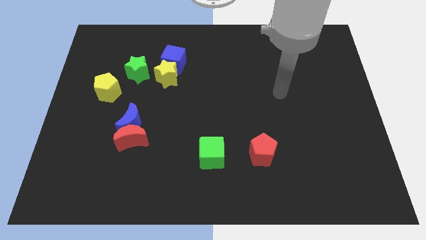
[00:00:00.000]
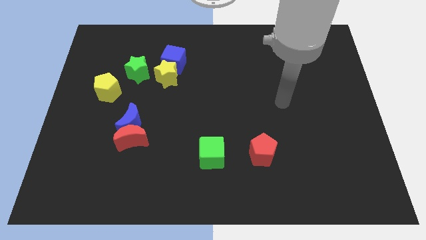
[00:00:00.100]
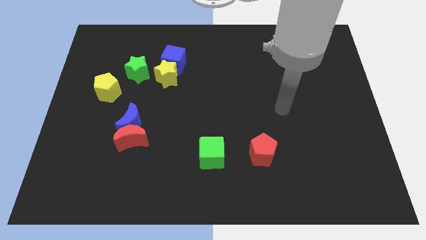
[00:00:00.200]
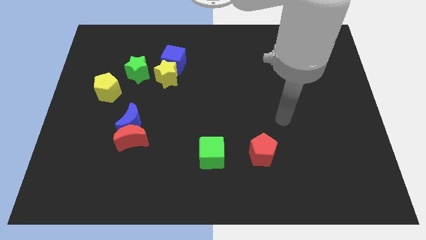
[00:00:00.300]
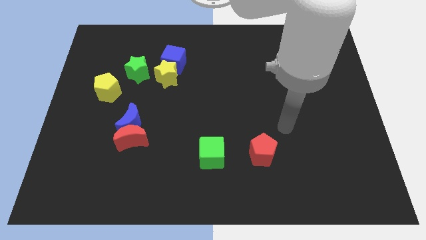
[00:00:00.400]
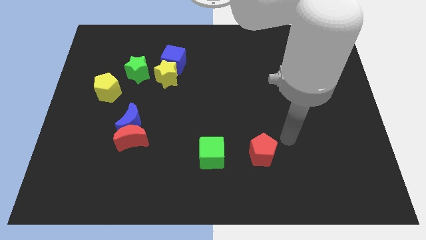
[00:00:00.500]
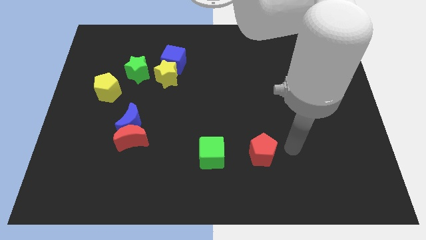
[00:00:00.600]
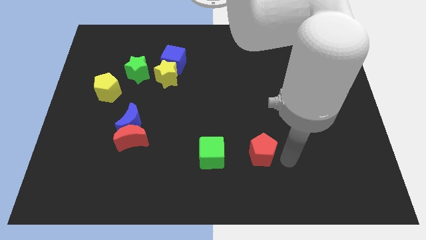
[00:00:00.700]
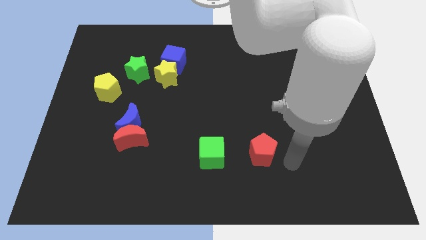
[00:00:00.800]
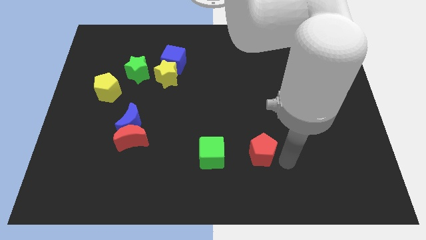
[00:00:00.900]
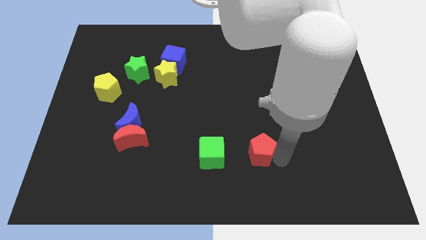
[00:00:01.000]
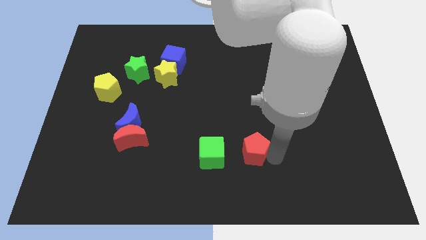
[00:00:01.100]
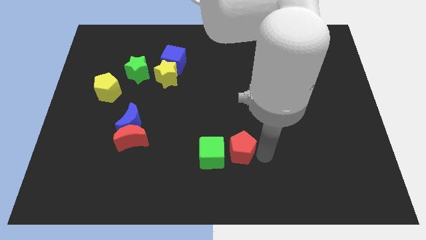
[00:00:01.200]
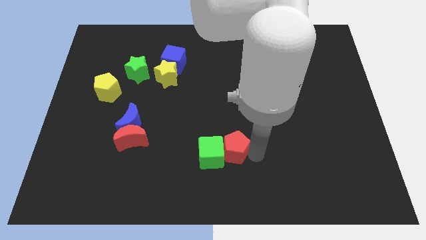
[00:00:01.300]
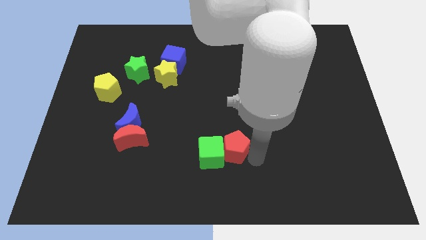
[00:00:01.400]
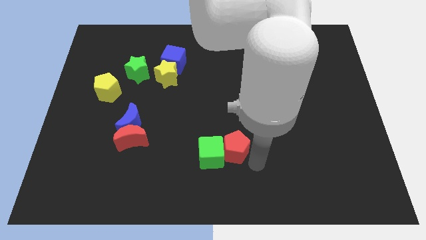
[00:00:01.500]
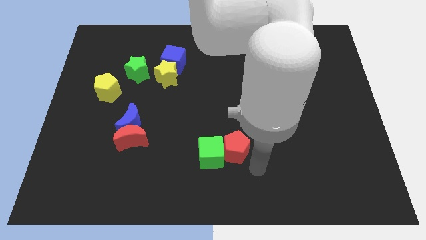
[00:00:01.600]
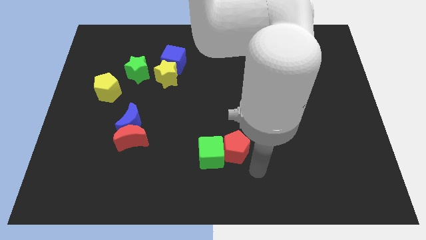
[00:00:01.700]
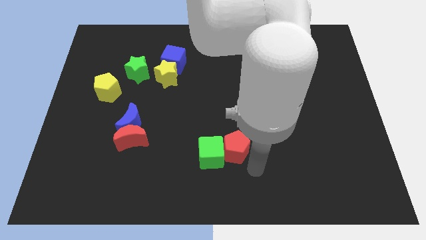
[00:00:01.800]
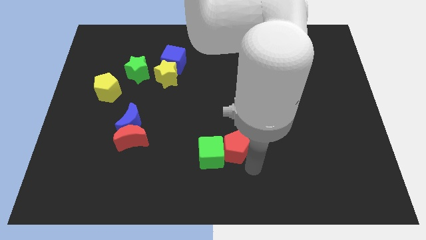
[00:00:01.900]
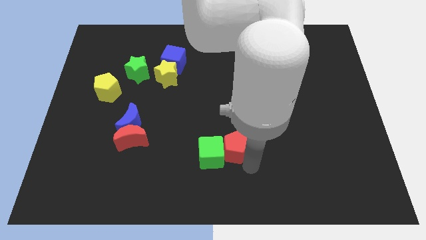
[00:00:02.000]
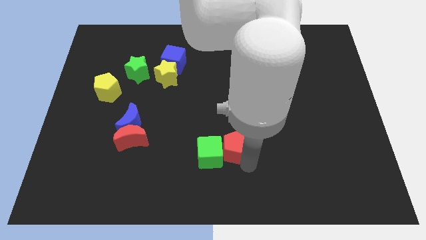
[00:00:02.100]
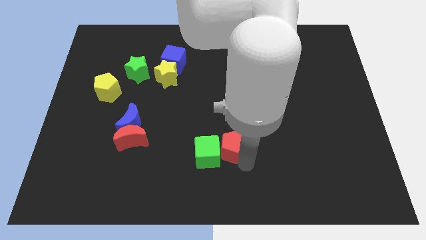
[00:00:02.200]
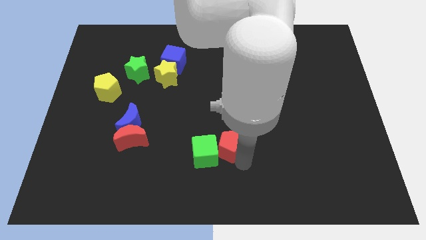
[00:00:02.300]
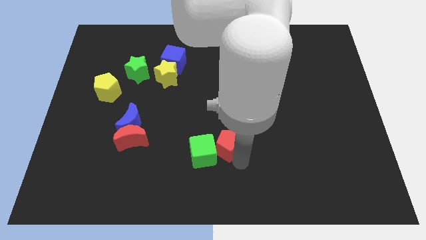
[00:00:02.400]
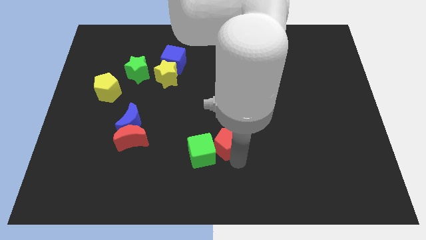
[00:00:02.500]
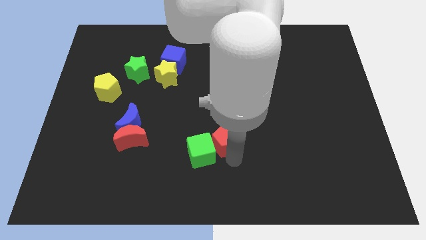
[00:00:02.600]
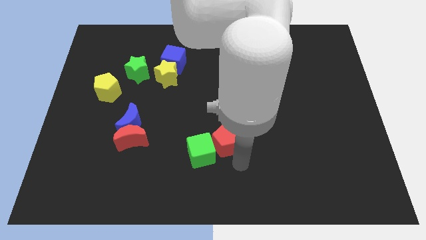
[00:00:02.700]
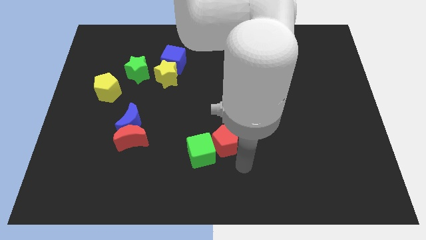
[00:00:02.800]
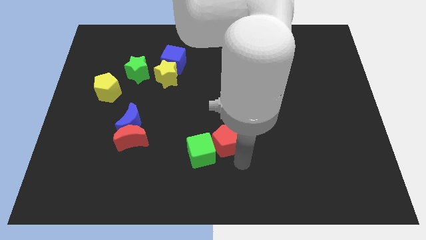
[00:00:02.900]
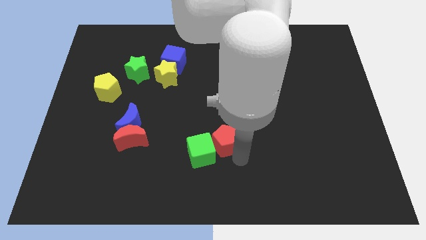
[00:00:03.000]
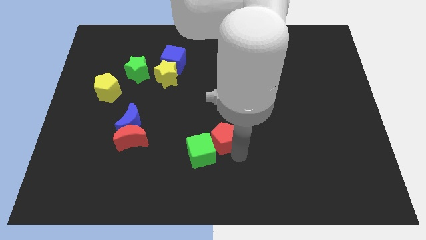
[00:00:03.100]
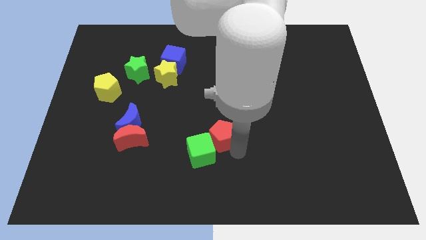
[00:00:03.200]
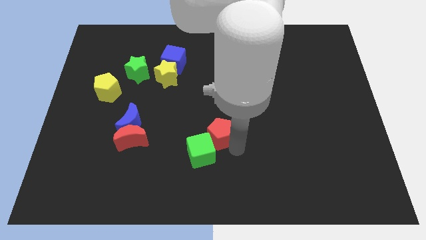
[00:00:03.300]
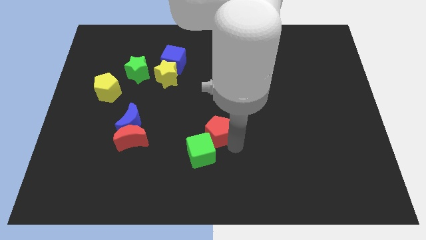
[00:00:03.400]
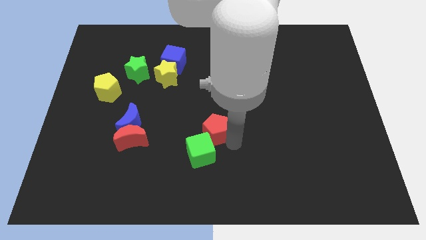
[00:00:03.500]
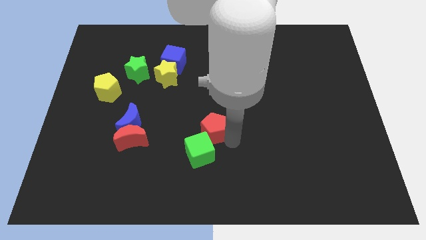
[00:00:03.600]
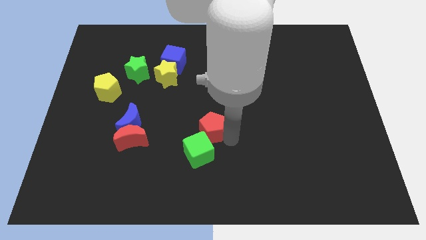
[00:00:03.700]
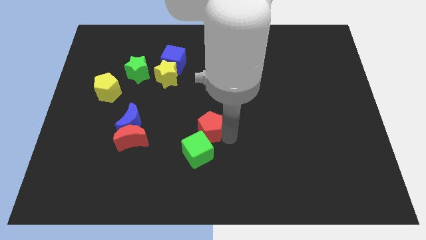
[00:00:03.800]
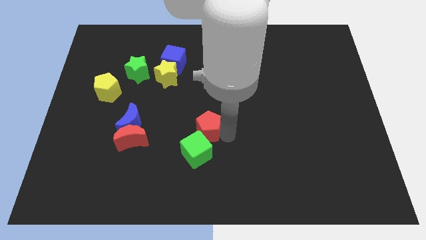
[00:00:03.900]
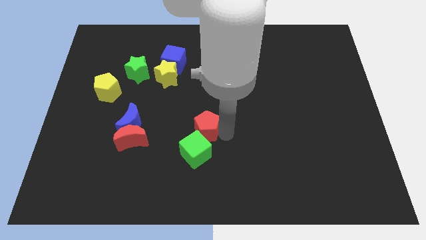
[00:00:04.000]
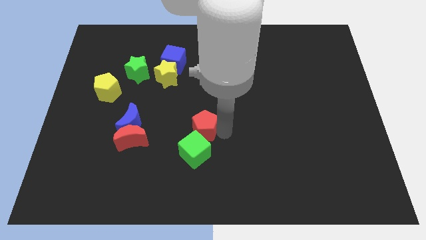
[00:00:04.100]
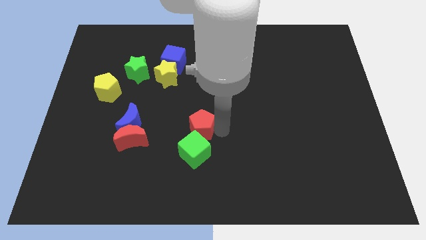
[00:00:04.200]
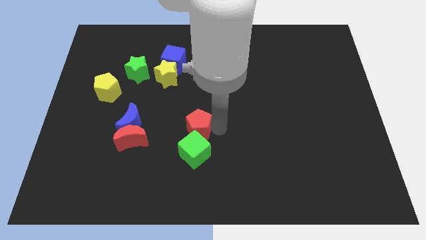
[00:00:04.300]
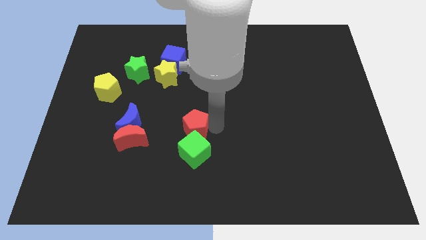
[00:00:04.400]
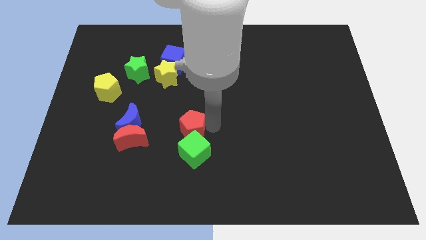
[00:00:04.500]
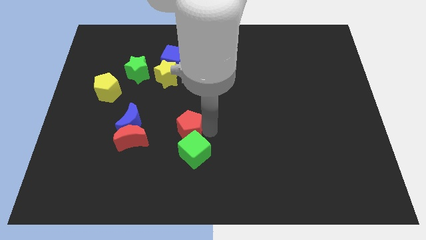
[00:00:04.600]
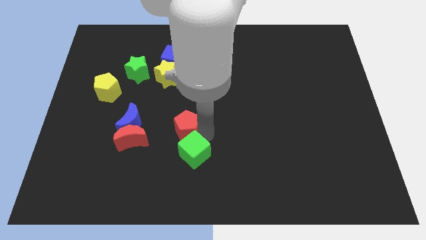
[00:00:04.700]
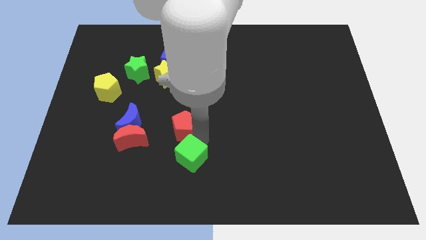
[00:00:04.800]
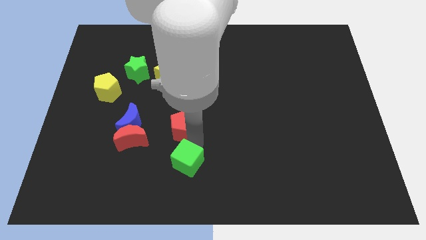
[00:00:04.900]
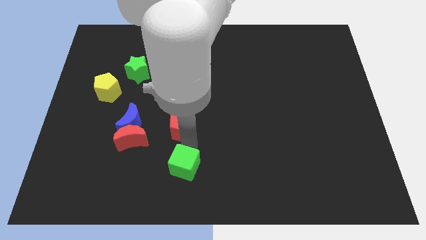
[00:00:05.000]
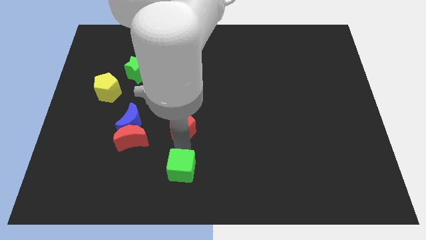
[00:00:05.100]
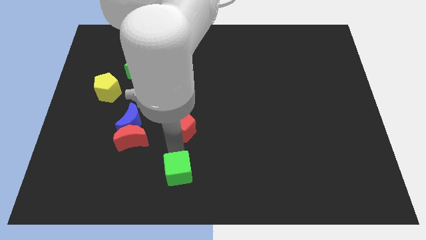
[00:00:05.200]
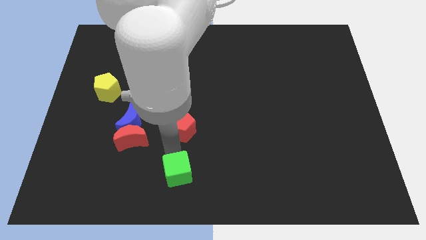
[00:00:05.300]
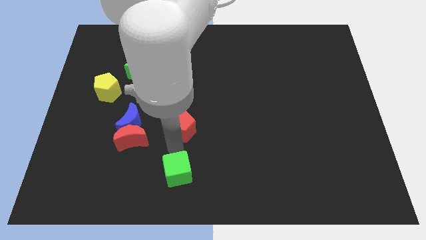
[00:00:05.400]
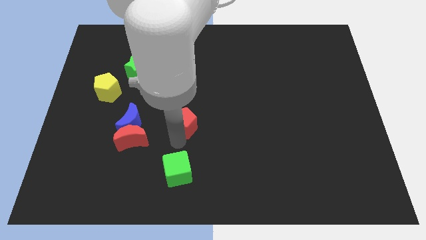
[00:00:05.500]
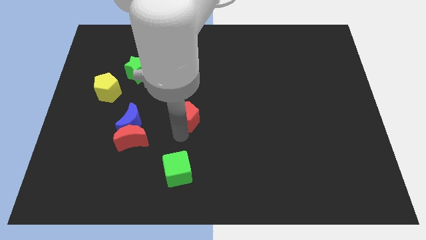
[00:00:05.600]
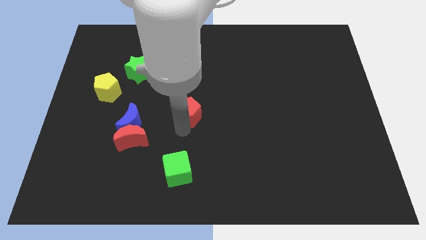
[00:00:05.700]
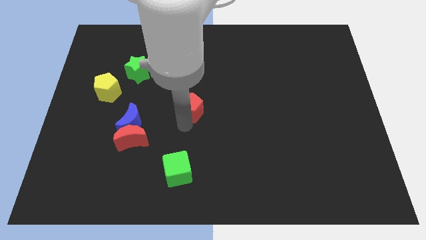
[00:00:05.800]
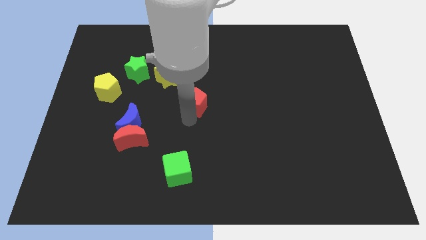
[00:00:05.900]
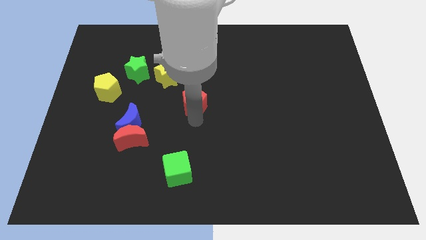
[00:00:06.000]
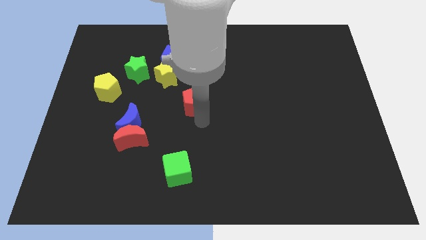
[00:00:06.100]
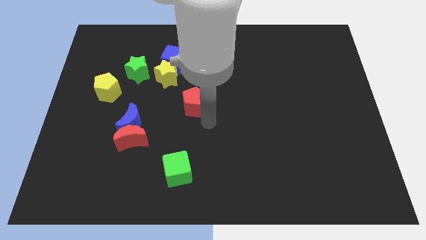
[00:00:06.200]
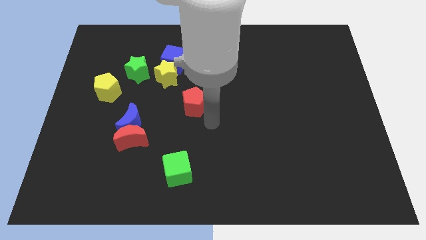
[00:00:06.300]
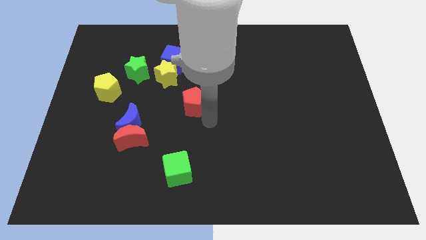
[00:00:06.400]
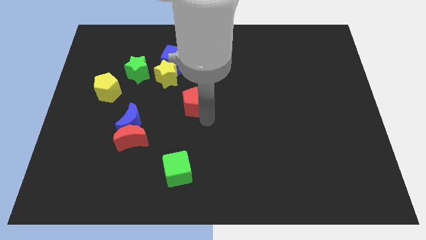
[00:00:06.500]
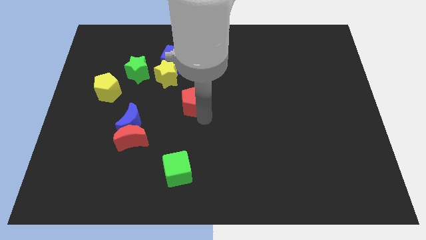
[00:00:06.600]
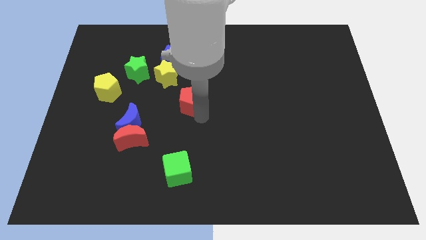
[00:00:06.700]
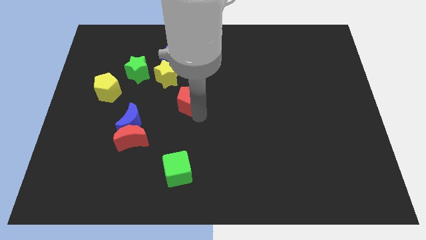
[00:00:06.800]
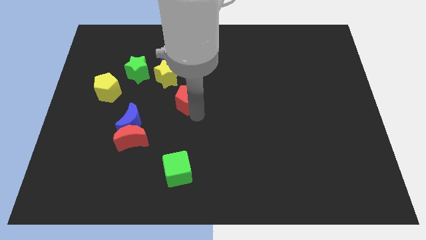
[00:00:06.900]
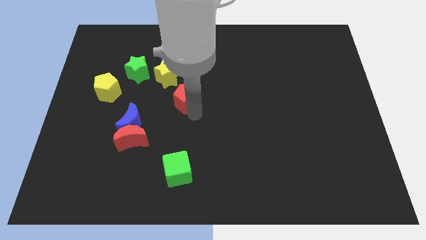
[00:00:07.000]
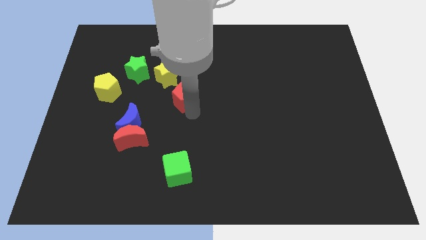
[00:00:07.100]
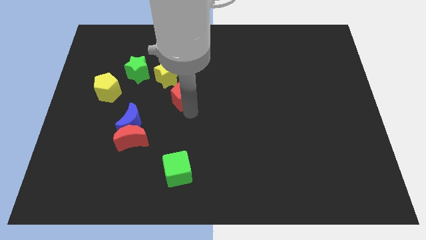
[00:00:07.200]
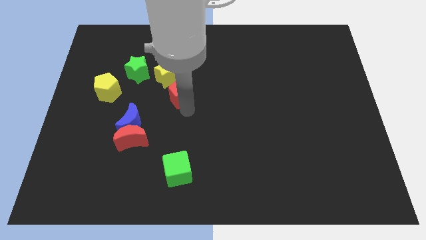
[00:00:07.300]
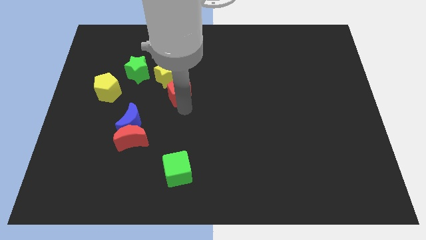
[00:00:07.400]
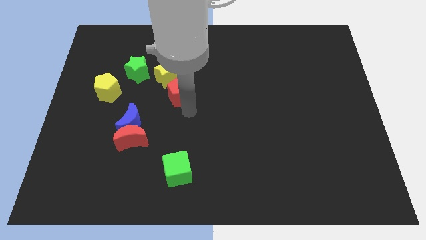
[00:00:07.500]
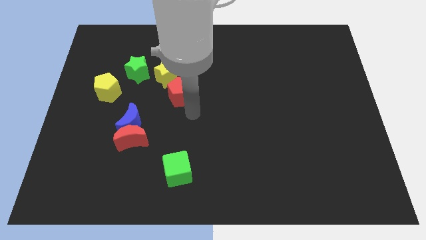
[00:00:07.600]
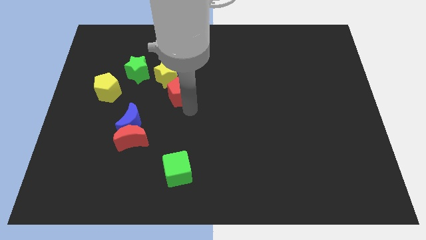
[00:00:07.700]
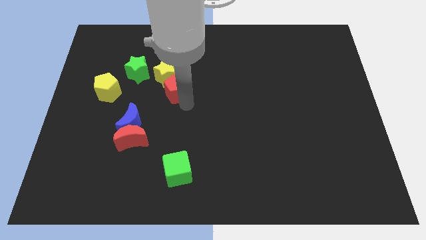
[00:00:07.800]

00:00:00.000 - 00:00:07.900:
push the red pentagon to the yellow star
